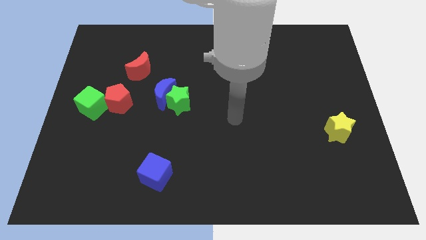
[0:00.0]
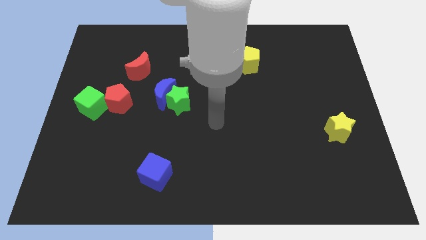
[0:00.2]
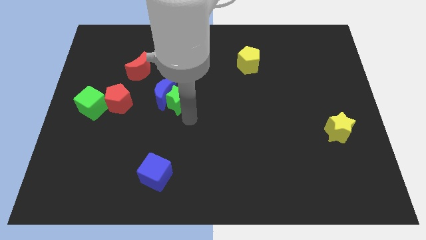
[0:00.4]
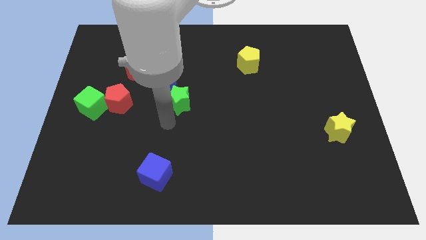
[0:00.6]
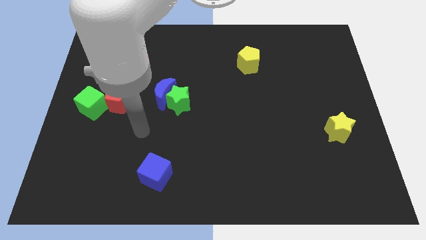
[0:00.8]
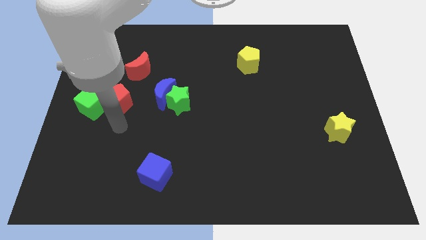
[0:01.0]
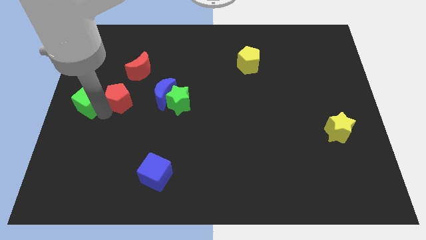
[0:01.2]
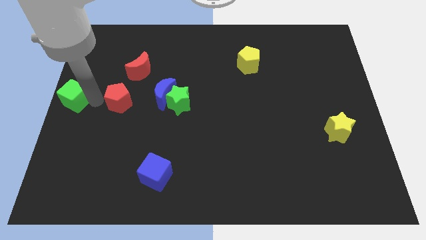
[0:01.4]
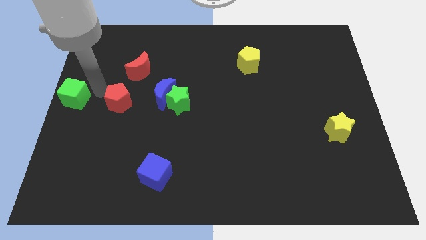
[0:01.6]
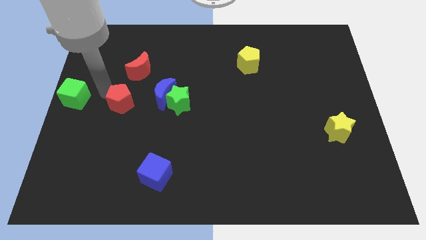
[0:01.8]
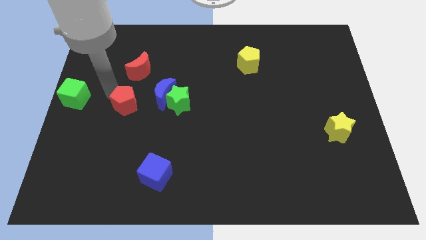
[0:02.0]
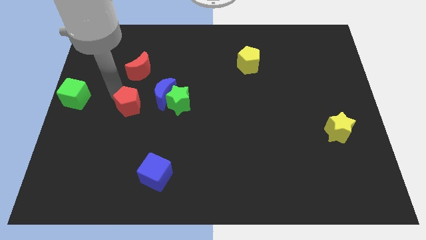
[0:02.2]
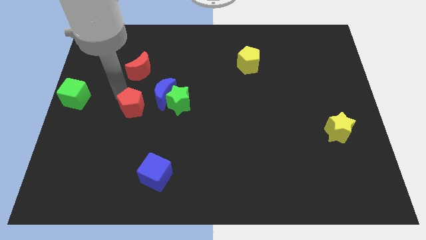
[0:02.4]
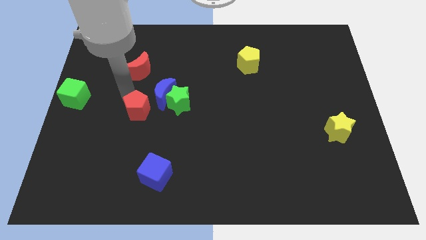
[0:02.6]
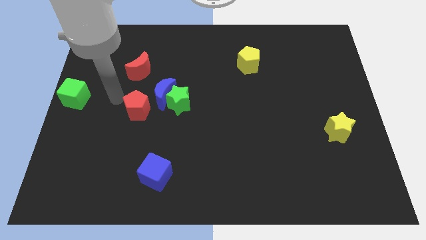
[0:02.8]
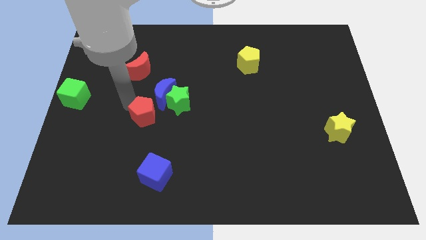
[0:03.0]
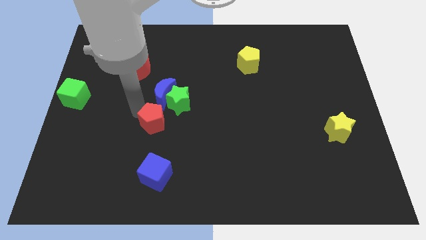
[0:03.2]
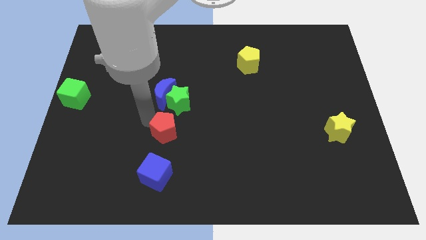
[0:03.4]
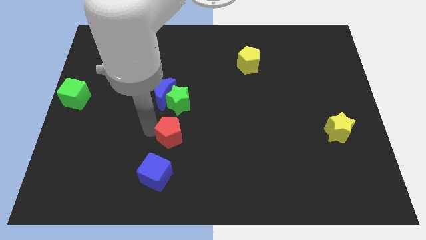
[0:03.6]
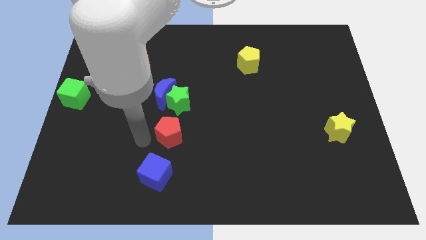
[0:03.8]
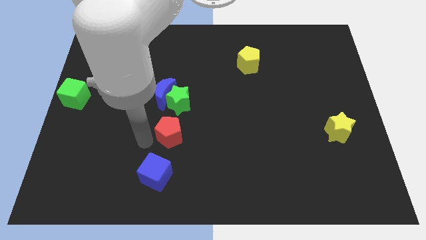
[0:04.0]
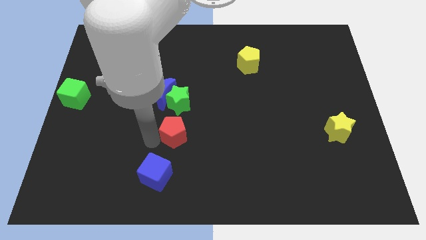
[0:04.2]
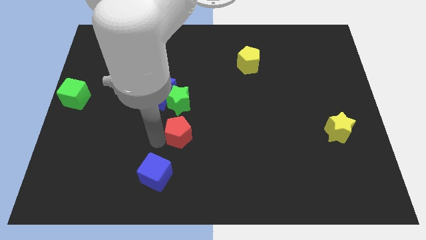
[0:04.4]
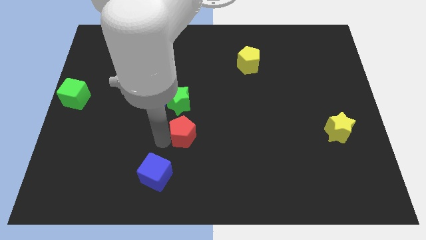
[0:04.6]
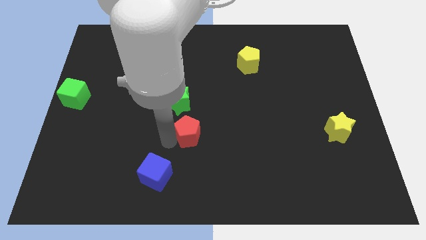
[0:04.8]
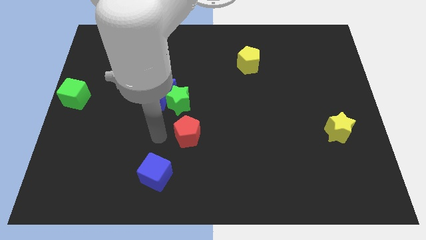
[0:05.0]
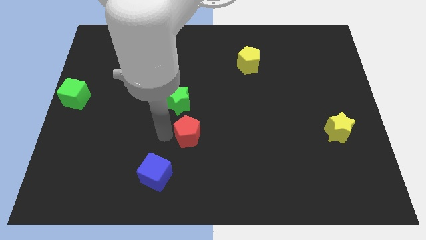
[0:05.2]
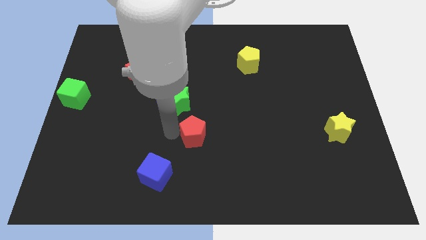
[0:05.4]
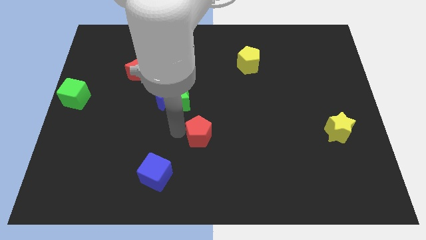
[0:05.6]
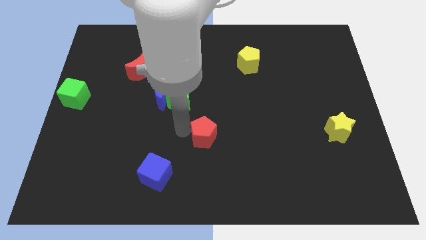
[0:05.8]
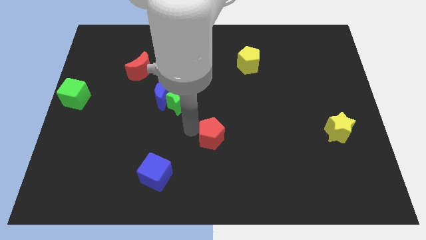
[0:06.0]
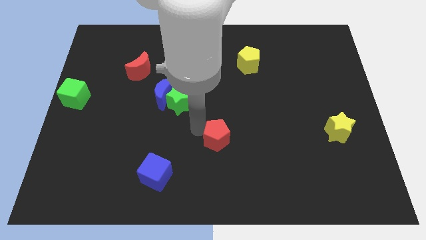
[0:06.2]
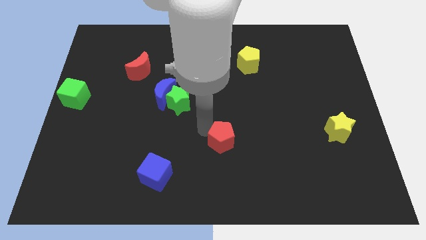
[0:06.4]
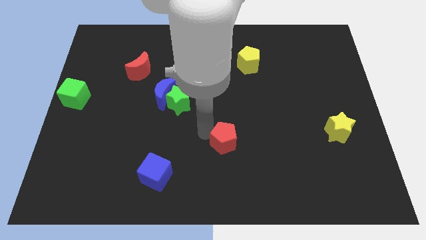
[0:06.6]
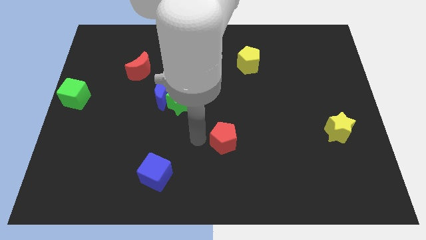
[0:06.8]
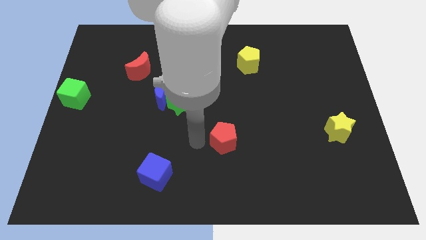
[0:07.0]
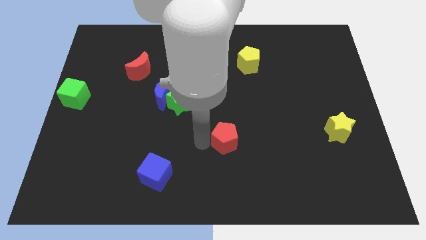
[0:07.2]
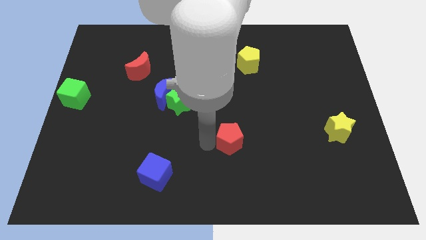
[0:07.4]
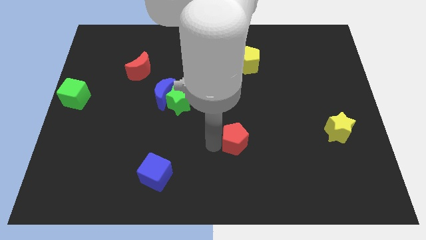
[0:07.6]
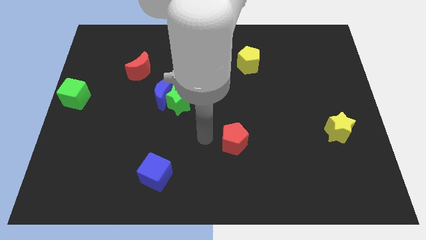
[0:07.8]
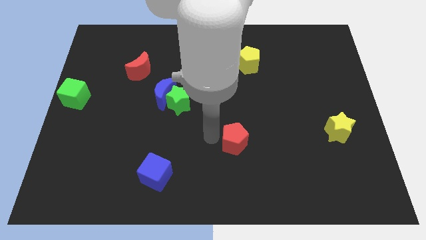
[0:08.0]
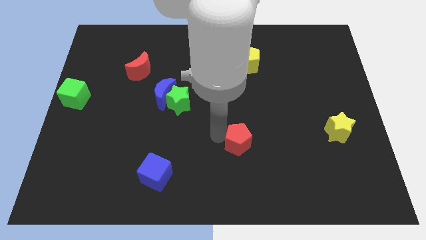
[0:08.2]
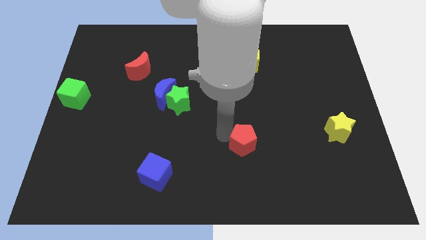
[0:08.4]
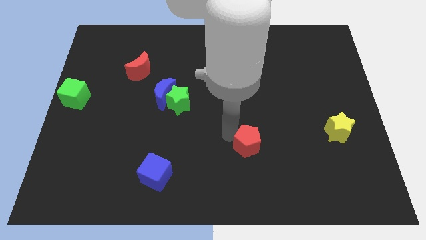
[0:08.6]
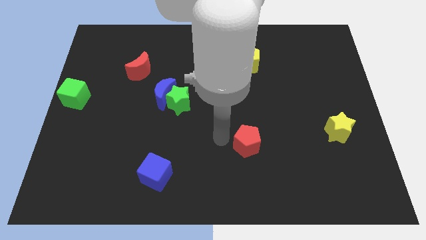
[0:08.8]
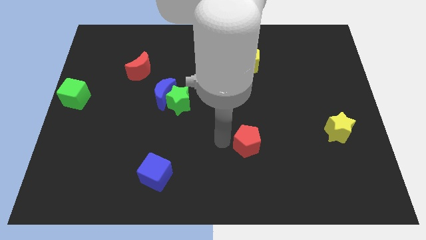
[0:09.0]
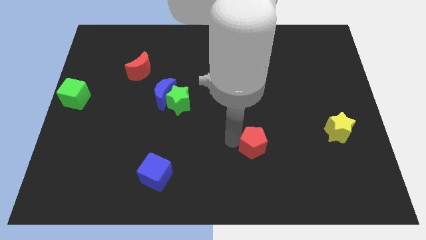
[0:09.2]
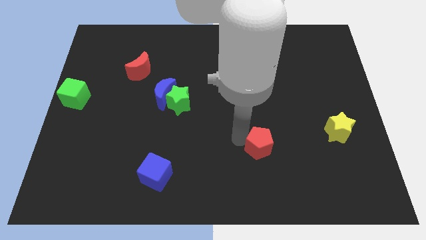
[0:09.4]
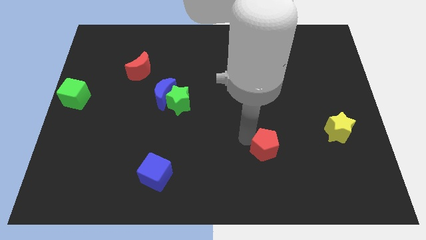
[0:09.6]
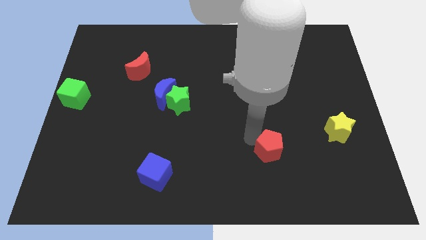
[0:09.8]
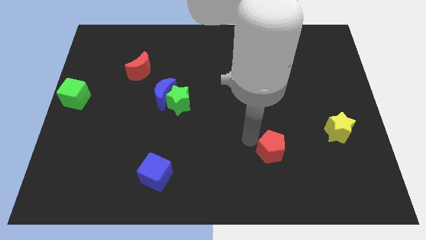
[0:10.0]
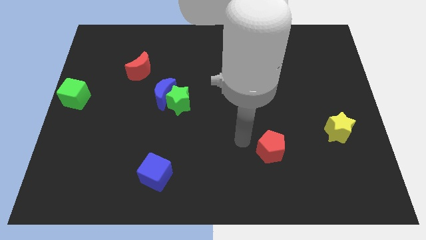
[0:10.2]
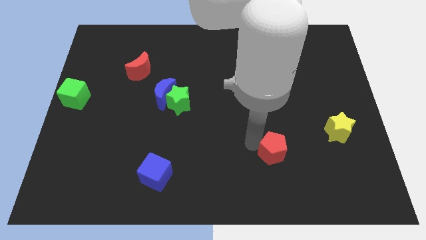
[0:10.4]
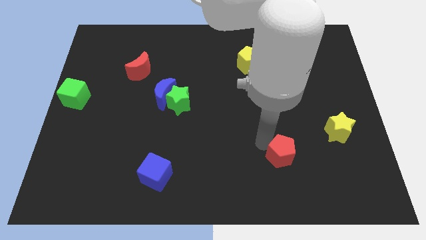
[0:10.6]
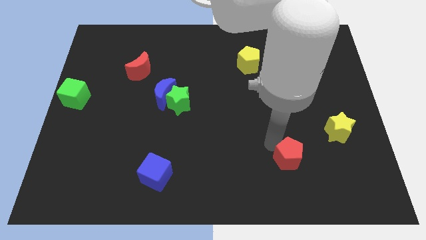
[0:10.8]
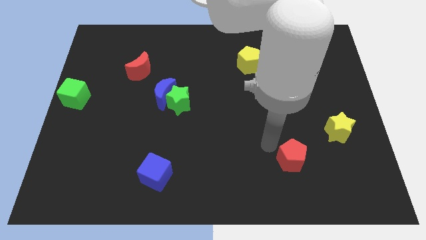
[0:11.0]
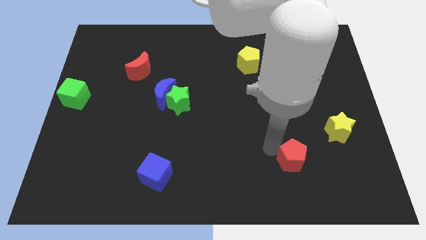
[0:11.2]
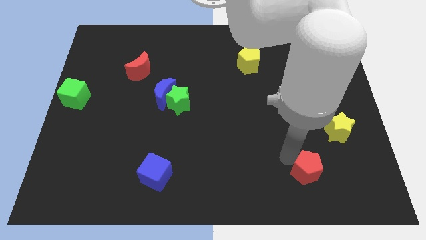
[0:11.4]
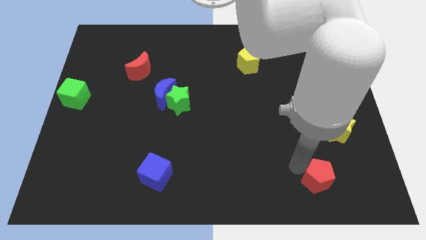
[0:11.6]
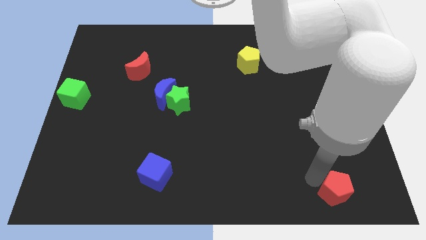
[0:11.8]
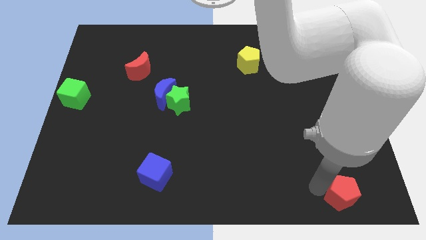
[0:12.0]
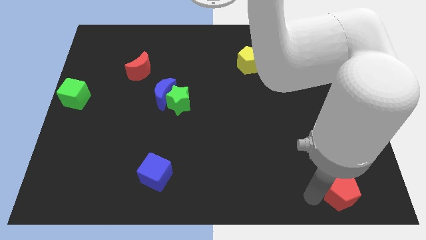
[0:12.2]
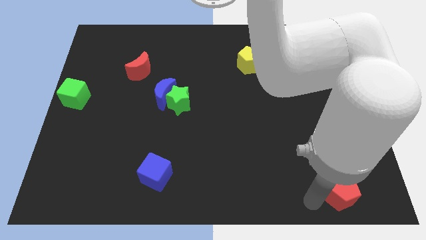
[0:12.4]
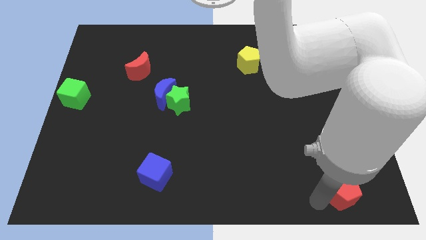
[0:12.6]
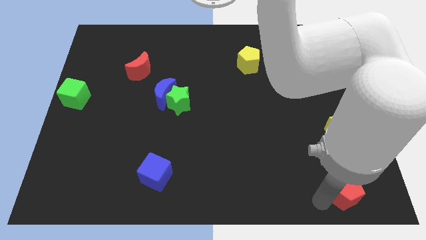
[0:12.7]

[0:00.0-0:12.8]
push the red pentagon to the bottom right of the board
